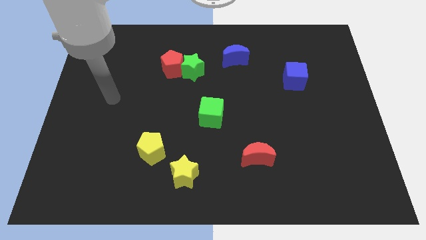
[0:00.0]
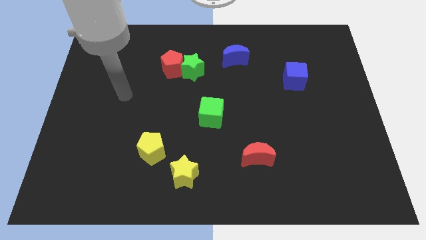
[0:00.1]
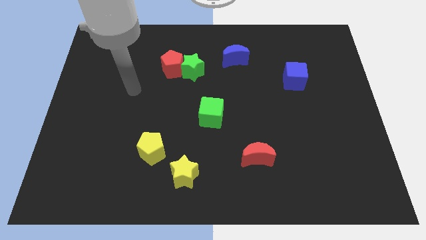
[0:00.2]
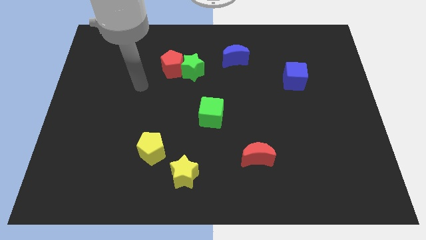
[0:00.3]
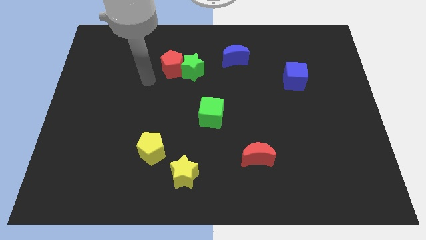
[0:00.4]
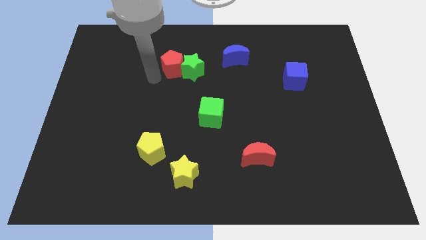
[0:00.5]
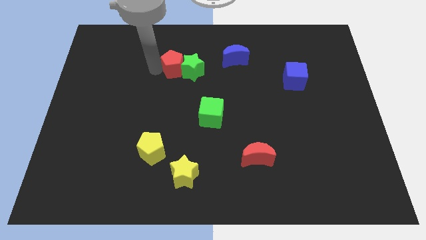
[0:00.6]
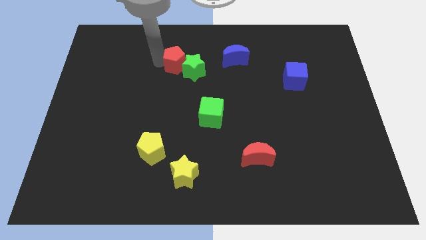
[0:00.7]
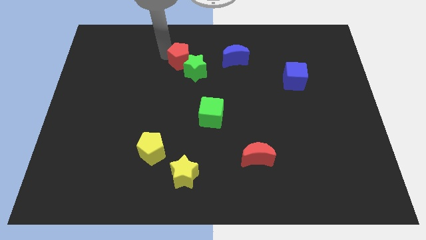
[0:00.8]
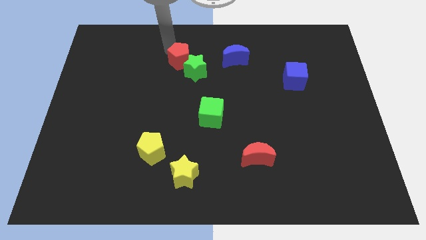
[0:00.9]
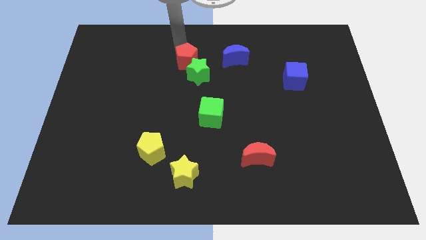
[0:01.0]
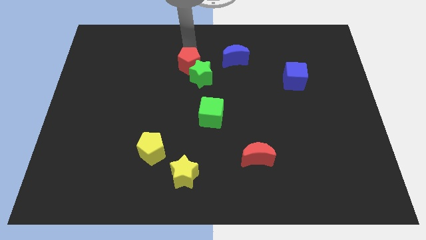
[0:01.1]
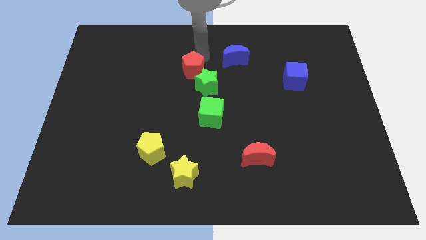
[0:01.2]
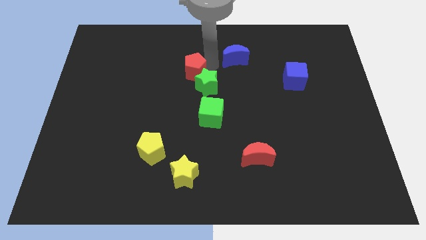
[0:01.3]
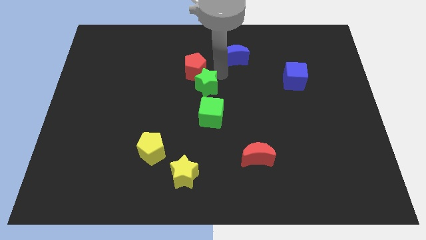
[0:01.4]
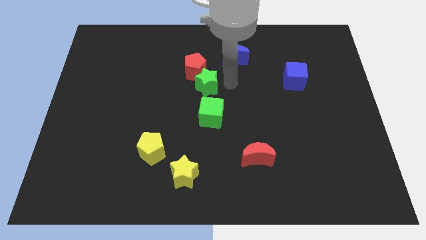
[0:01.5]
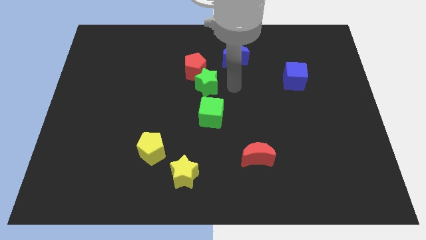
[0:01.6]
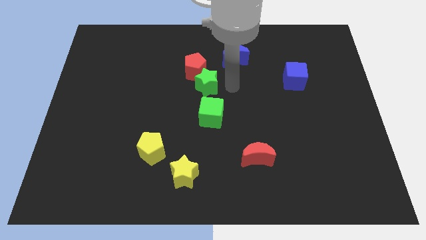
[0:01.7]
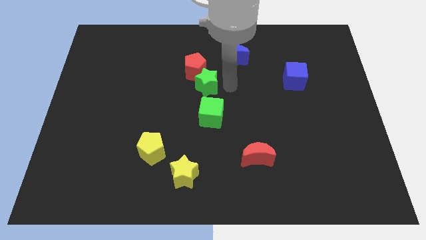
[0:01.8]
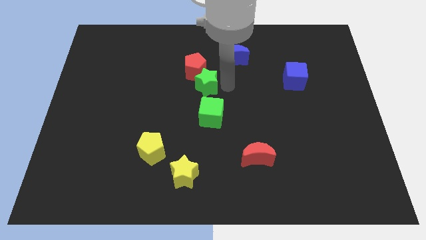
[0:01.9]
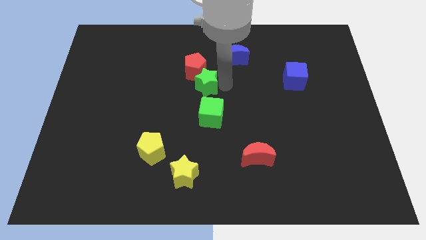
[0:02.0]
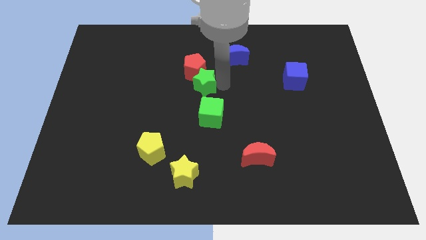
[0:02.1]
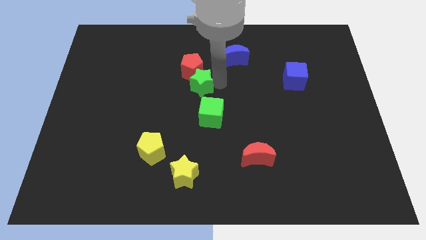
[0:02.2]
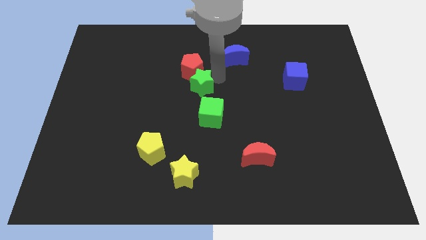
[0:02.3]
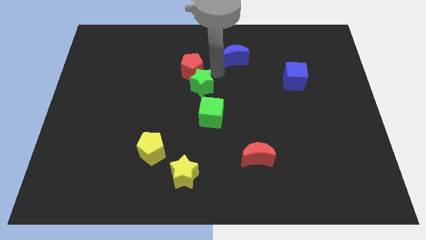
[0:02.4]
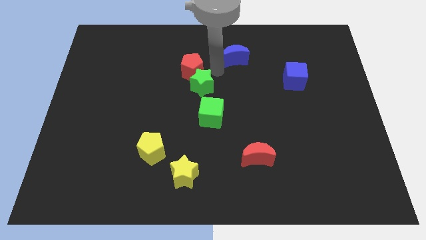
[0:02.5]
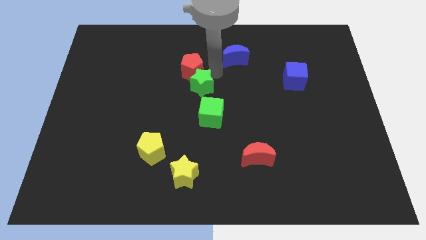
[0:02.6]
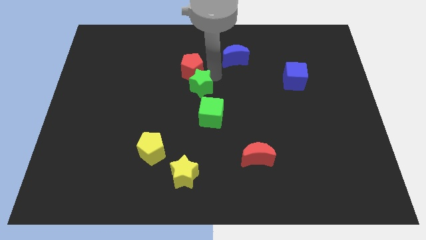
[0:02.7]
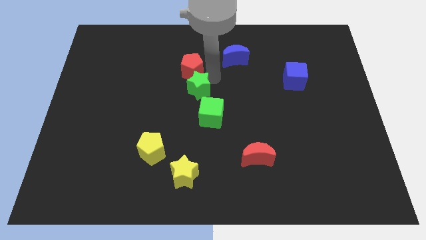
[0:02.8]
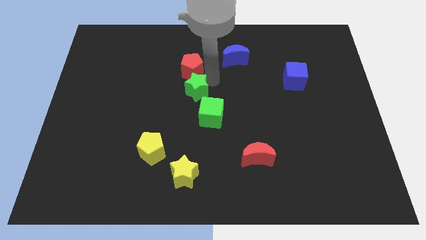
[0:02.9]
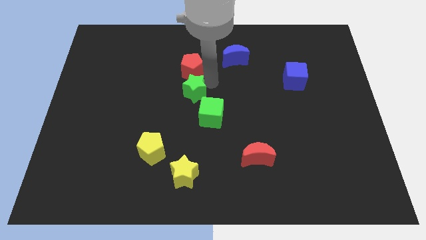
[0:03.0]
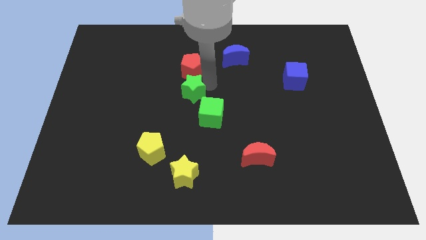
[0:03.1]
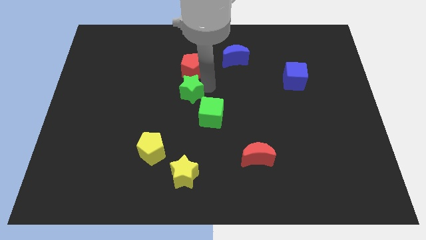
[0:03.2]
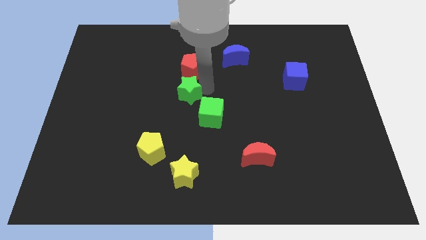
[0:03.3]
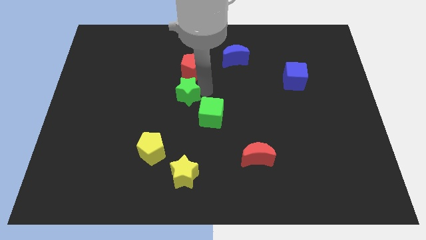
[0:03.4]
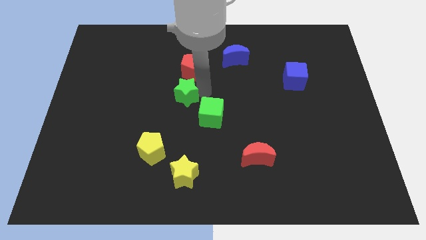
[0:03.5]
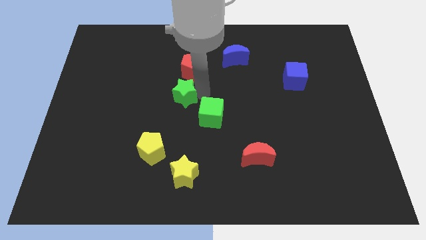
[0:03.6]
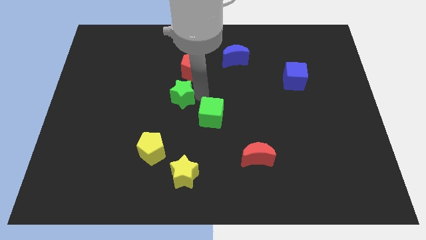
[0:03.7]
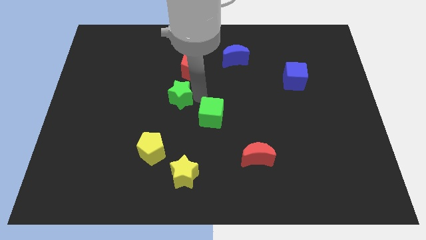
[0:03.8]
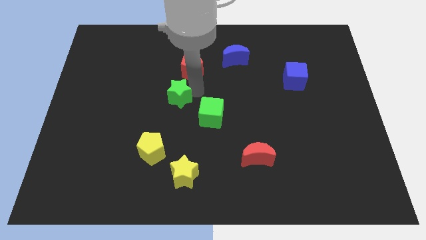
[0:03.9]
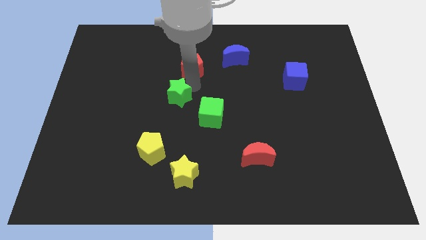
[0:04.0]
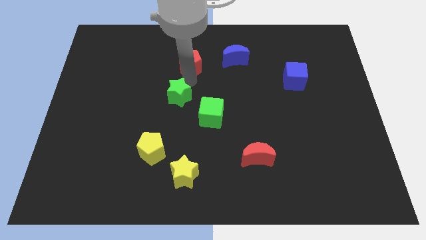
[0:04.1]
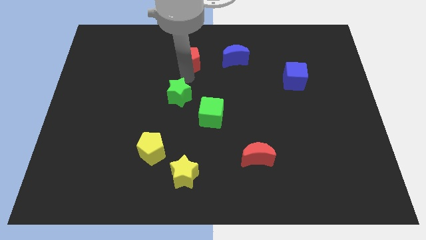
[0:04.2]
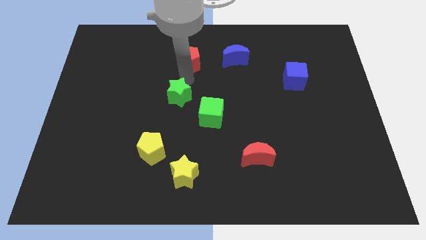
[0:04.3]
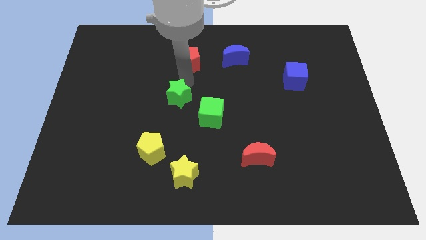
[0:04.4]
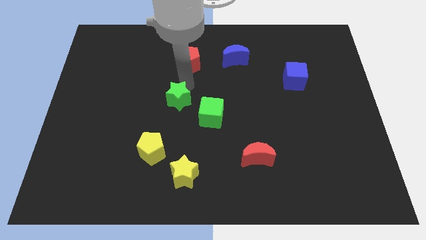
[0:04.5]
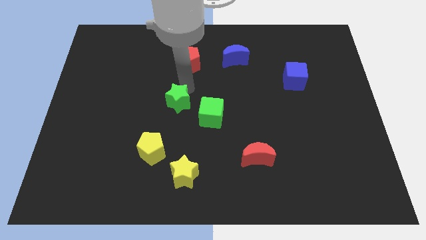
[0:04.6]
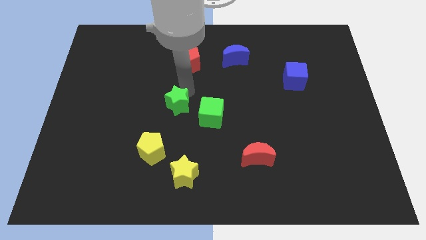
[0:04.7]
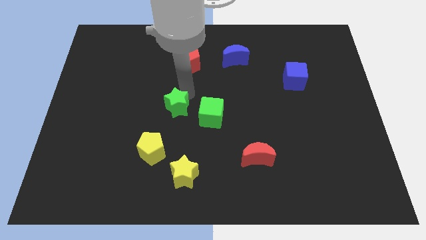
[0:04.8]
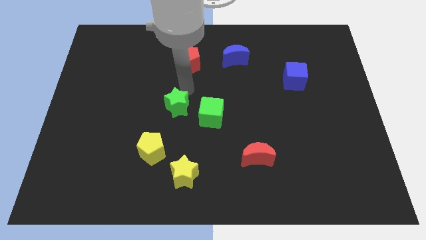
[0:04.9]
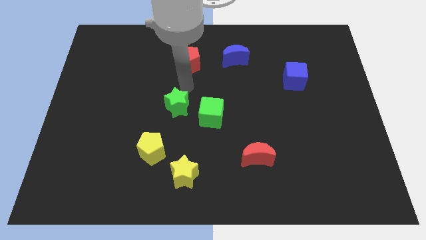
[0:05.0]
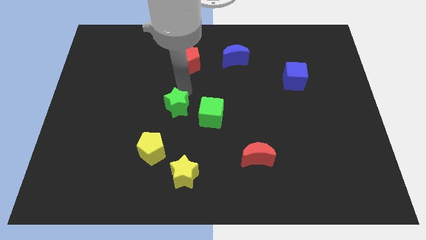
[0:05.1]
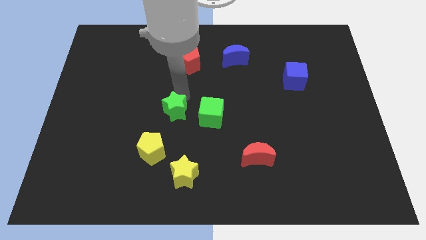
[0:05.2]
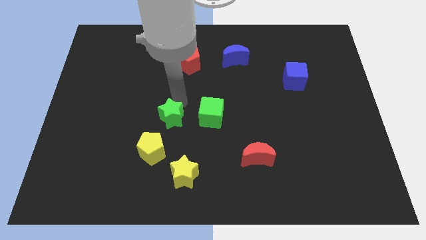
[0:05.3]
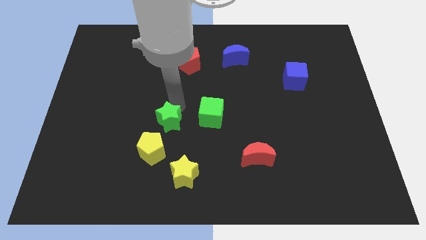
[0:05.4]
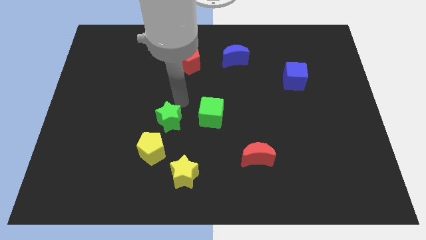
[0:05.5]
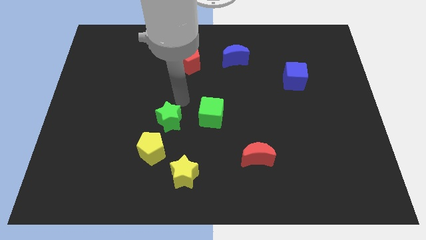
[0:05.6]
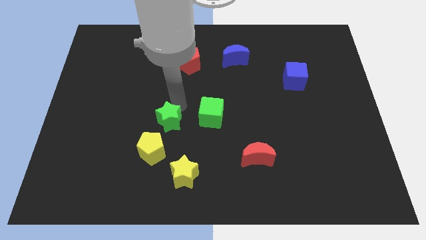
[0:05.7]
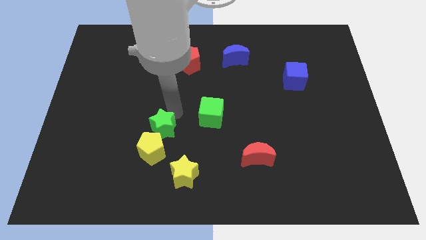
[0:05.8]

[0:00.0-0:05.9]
slide the green star close to the yellow pentagon

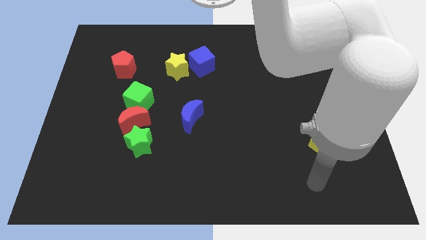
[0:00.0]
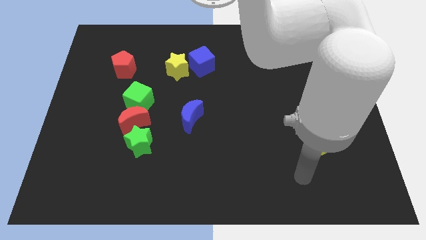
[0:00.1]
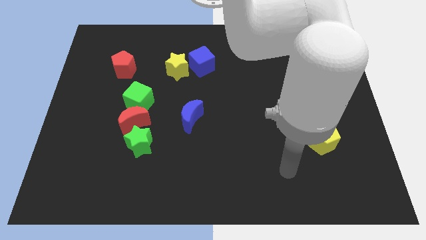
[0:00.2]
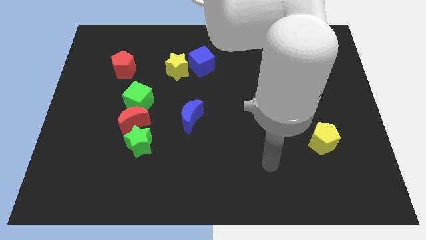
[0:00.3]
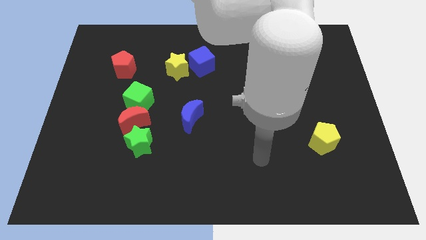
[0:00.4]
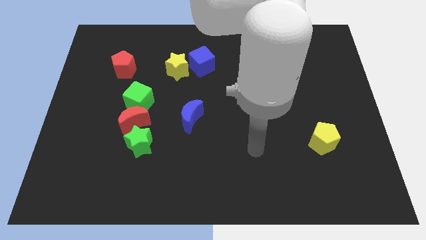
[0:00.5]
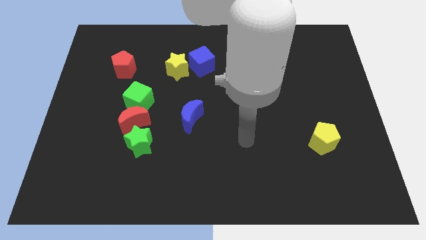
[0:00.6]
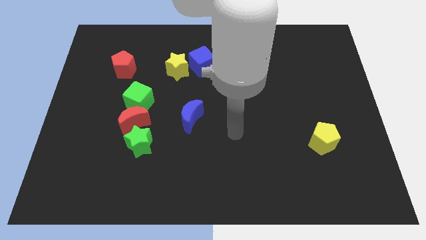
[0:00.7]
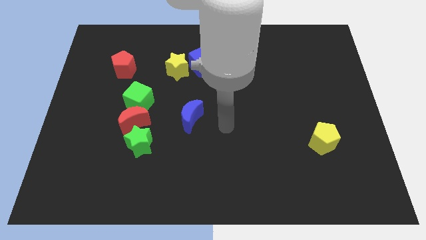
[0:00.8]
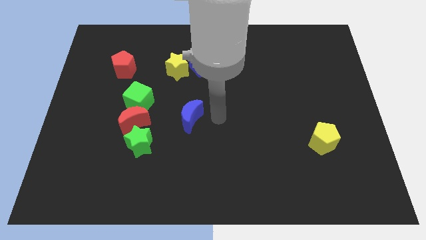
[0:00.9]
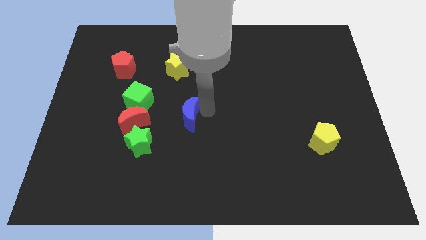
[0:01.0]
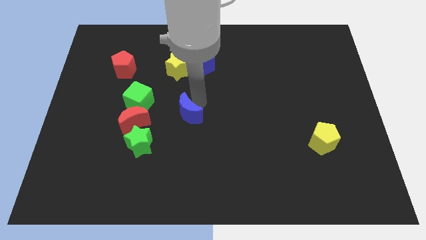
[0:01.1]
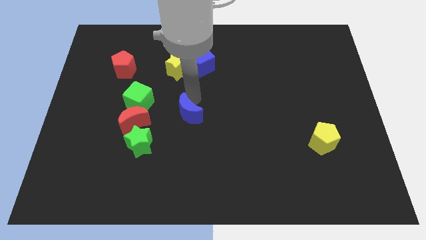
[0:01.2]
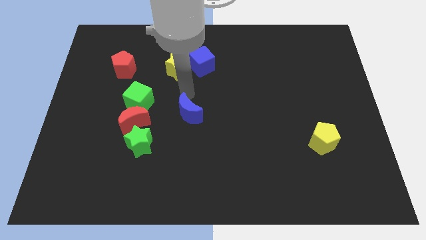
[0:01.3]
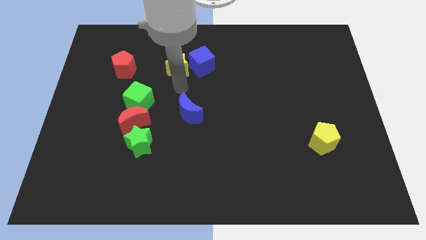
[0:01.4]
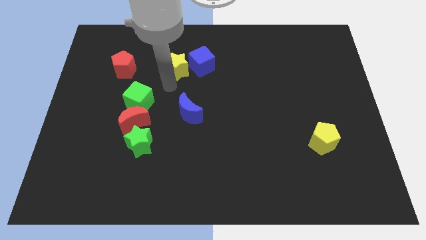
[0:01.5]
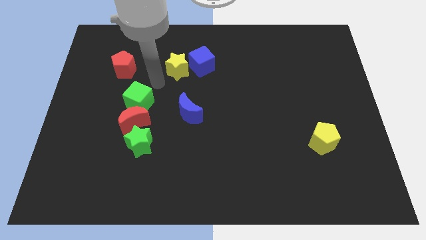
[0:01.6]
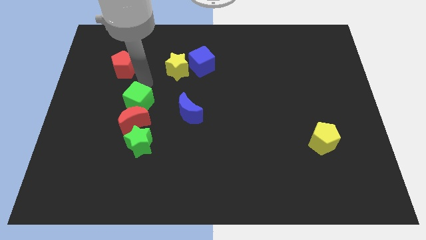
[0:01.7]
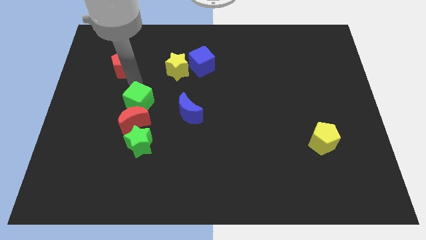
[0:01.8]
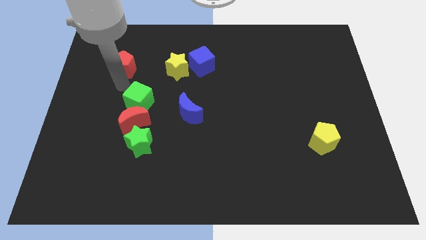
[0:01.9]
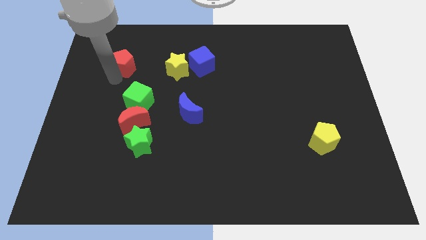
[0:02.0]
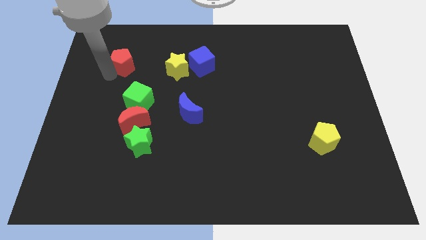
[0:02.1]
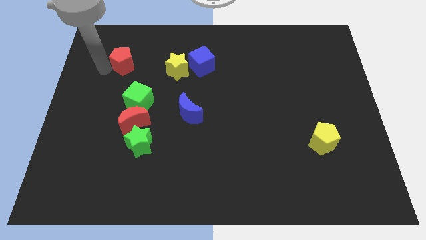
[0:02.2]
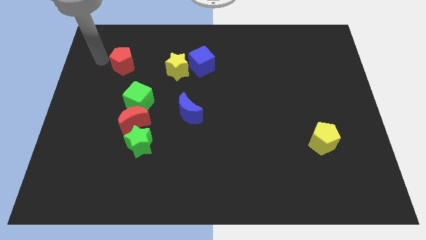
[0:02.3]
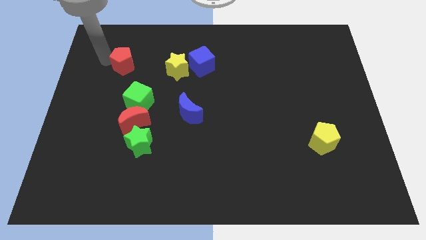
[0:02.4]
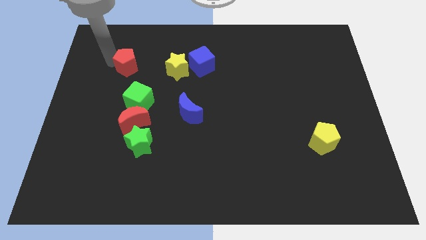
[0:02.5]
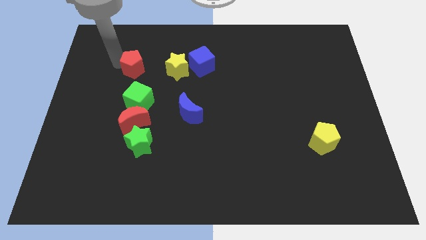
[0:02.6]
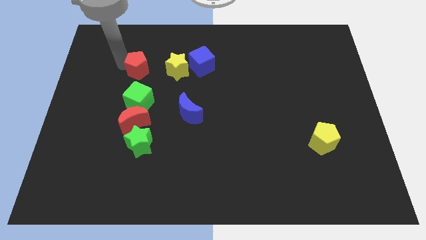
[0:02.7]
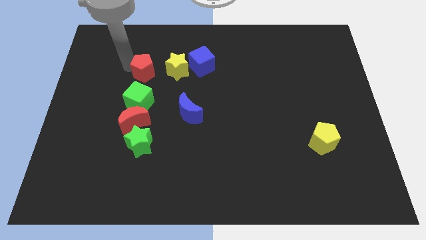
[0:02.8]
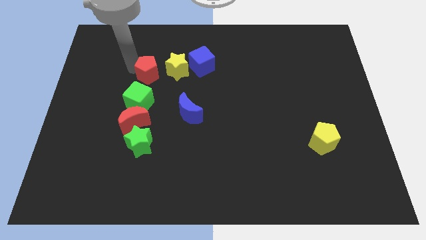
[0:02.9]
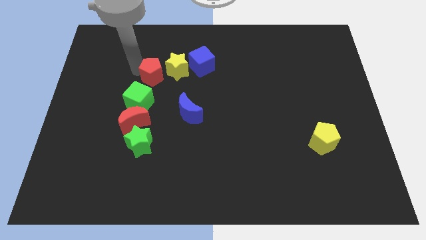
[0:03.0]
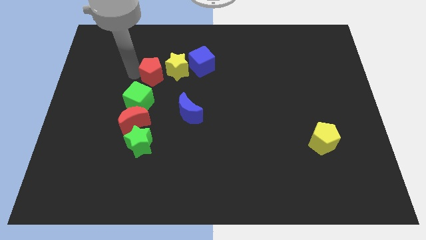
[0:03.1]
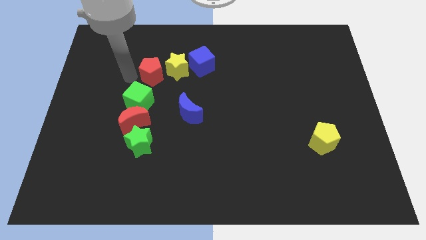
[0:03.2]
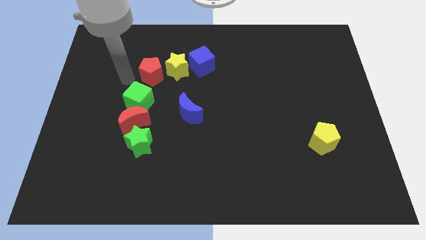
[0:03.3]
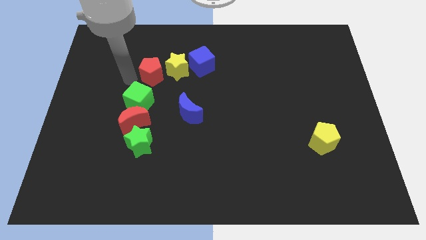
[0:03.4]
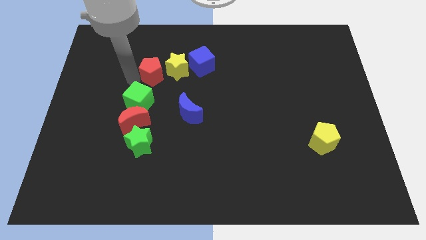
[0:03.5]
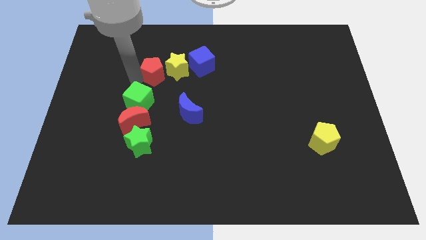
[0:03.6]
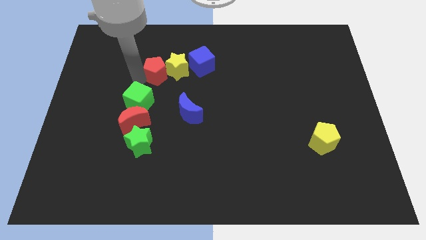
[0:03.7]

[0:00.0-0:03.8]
put the red pentagon close to the yellow star
